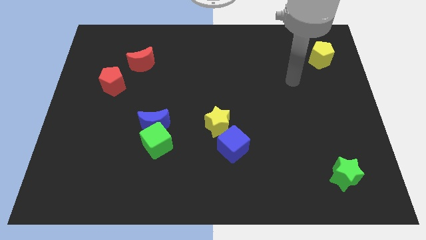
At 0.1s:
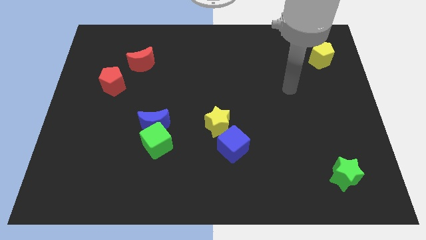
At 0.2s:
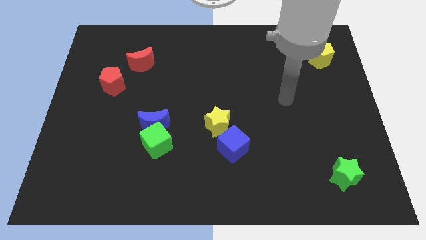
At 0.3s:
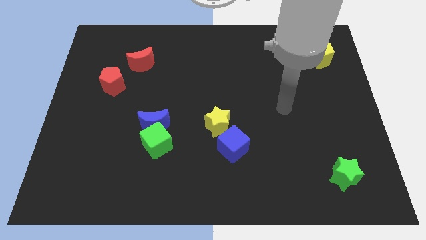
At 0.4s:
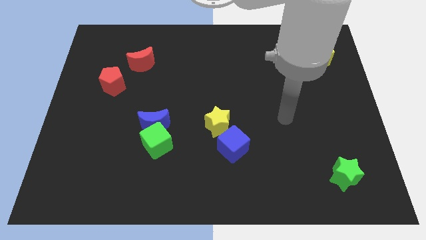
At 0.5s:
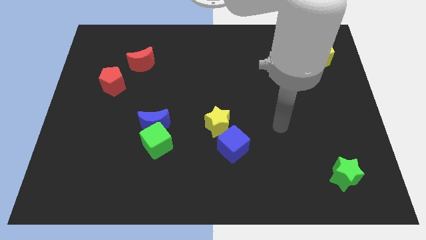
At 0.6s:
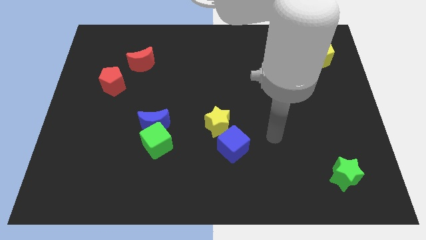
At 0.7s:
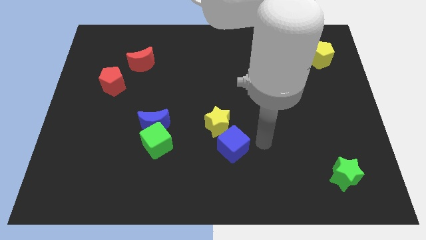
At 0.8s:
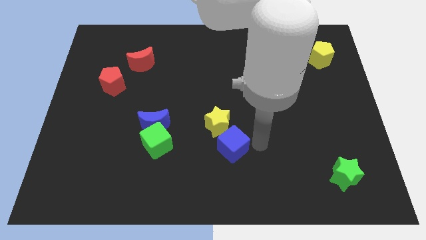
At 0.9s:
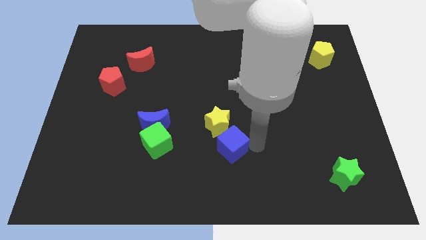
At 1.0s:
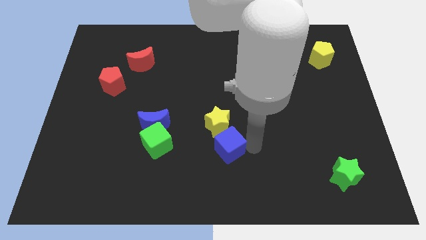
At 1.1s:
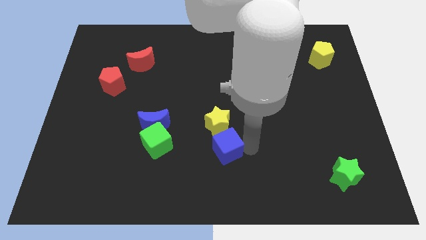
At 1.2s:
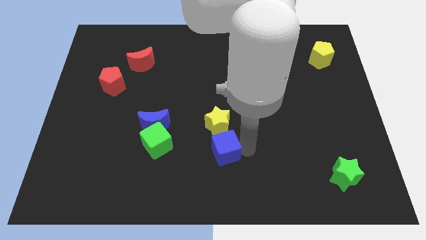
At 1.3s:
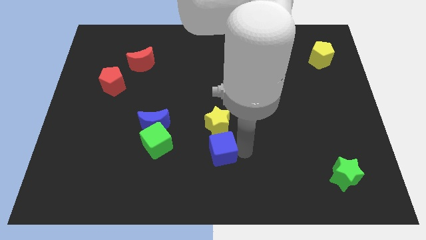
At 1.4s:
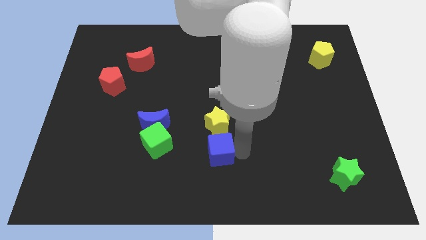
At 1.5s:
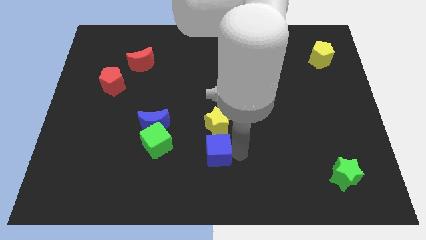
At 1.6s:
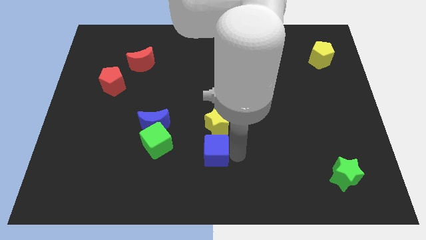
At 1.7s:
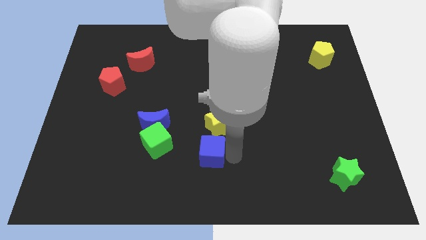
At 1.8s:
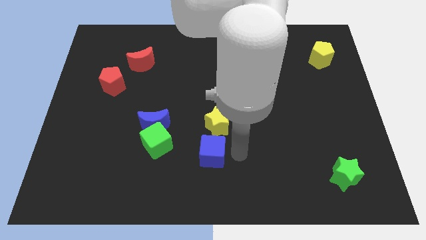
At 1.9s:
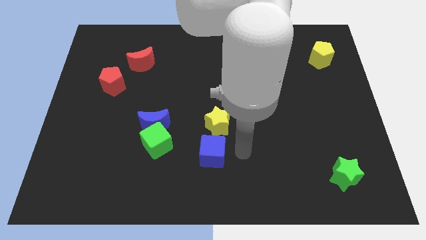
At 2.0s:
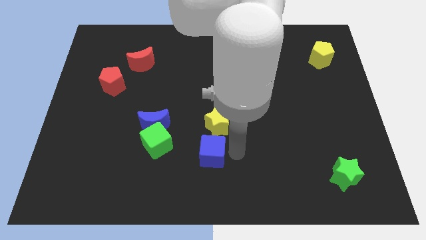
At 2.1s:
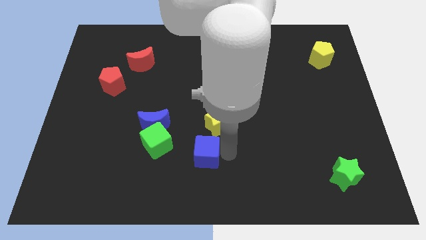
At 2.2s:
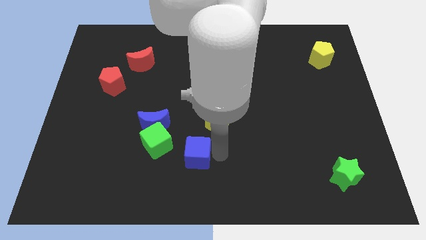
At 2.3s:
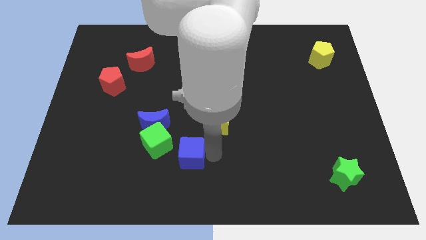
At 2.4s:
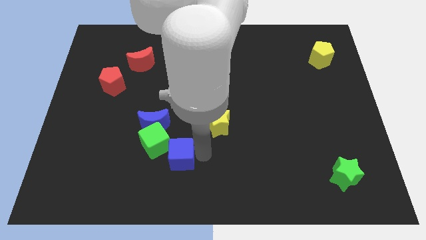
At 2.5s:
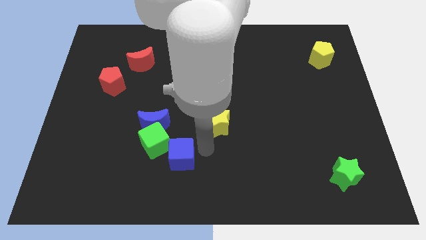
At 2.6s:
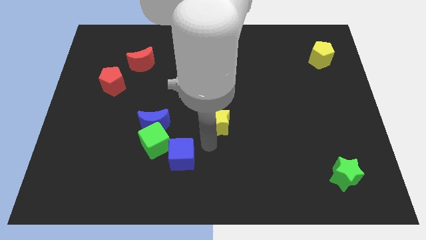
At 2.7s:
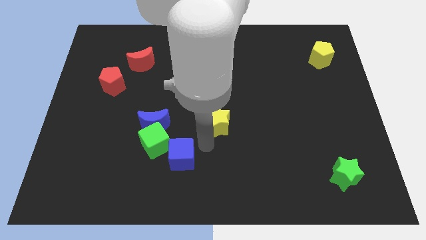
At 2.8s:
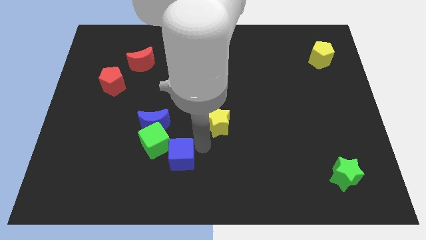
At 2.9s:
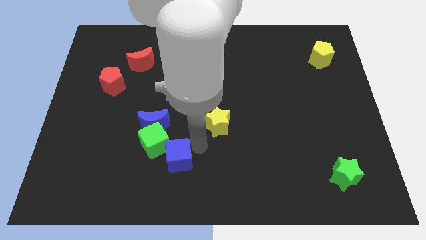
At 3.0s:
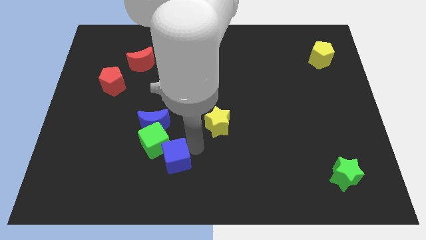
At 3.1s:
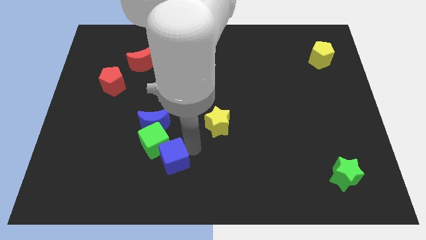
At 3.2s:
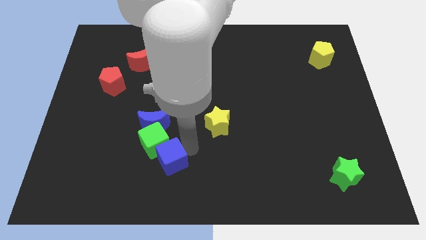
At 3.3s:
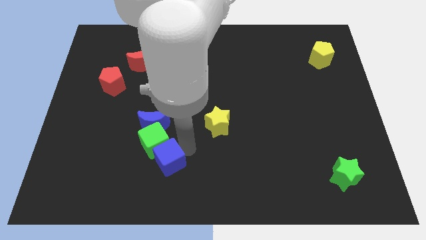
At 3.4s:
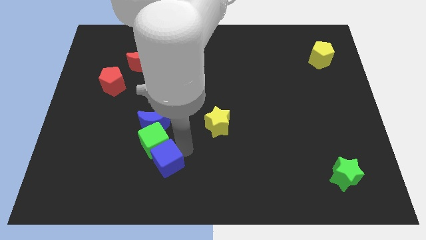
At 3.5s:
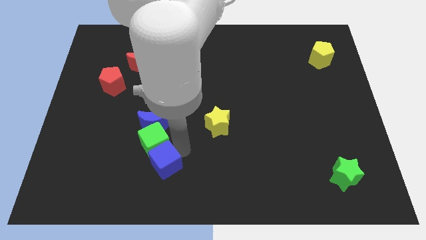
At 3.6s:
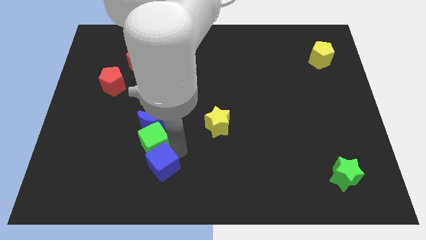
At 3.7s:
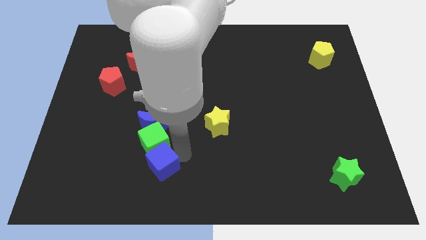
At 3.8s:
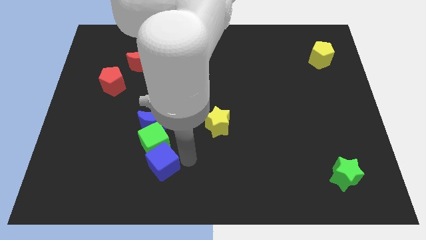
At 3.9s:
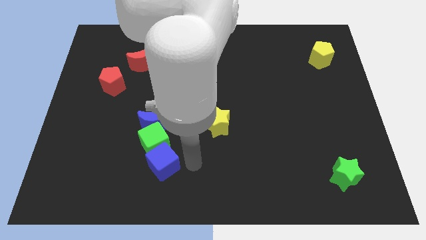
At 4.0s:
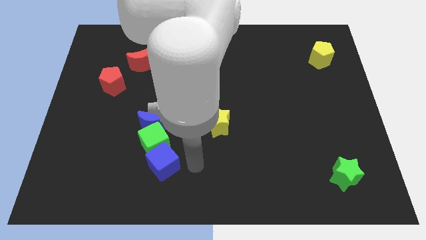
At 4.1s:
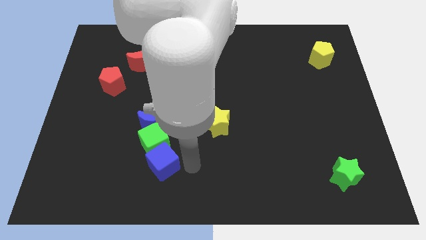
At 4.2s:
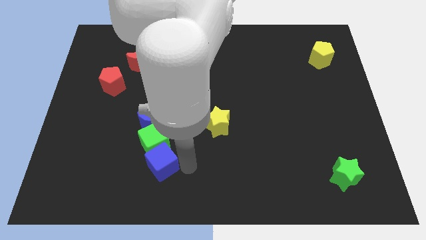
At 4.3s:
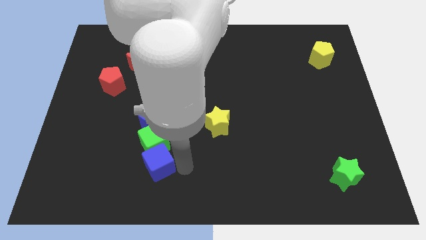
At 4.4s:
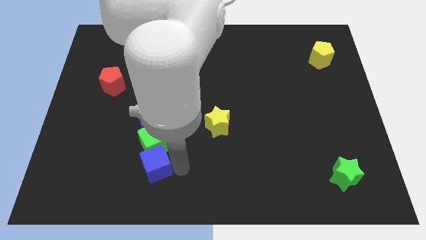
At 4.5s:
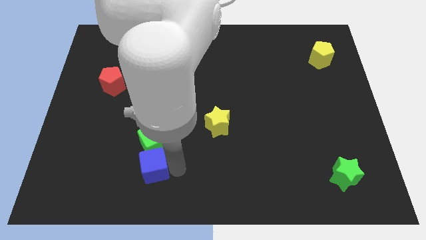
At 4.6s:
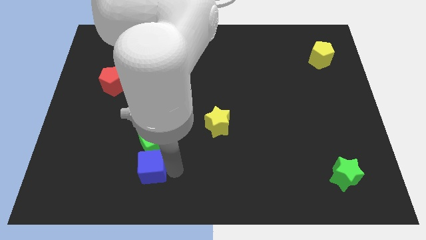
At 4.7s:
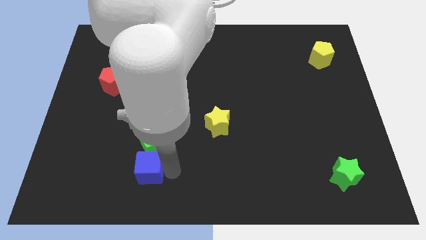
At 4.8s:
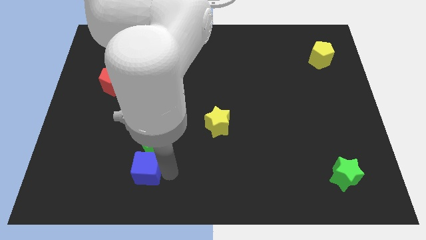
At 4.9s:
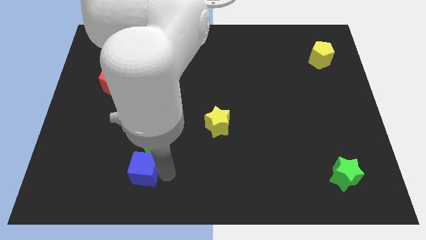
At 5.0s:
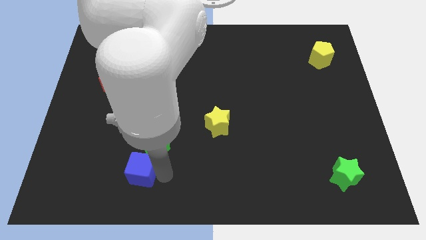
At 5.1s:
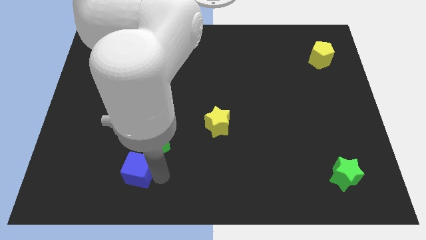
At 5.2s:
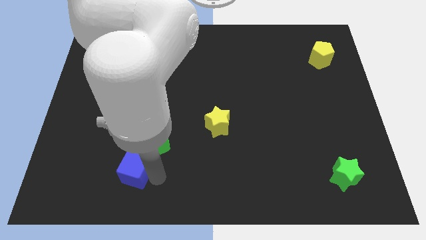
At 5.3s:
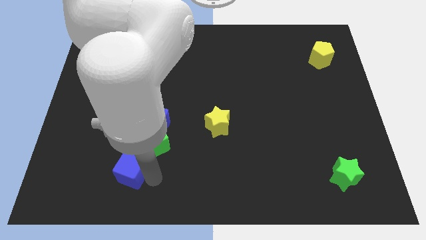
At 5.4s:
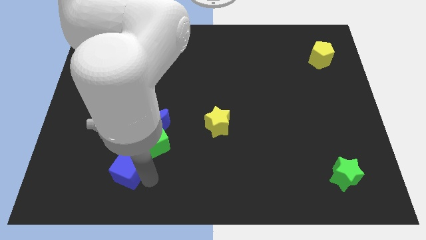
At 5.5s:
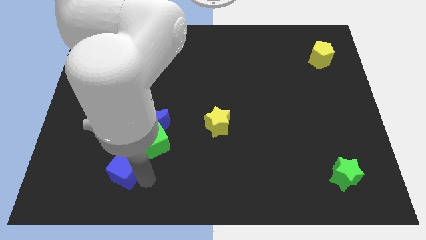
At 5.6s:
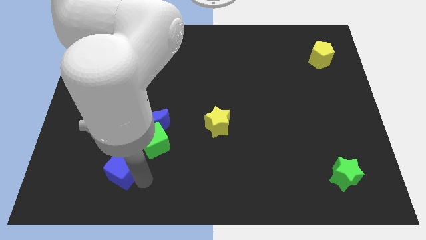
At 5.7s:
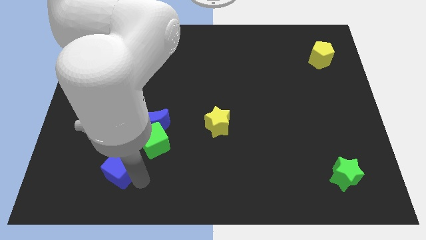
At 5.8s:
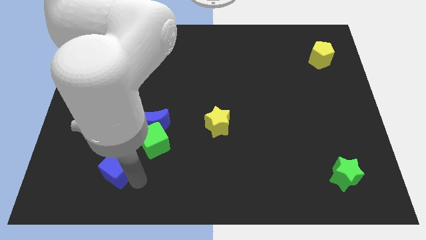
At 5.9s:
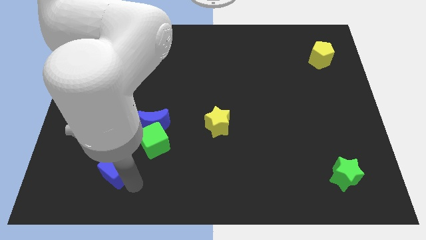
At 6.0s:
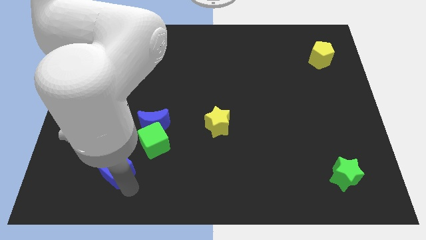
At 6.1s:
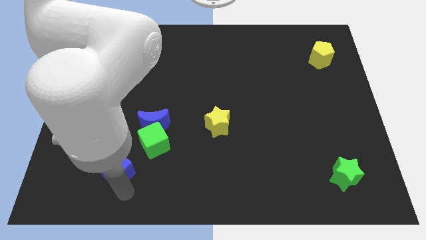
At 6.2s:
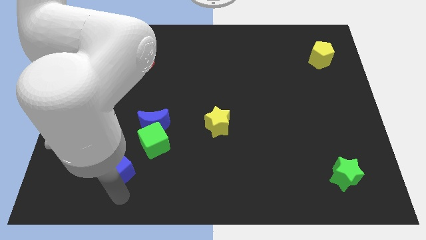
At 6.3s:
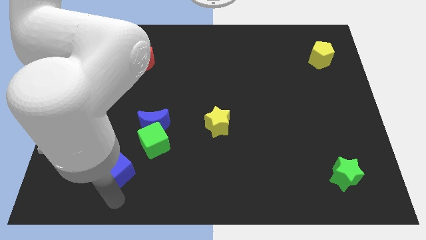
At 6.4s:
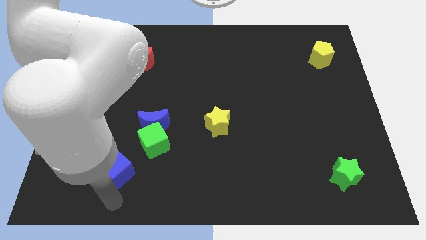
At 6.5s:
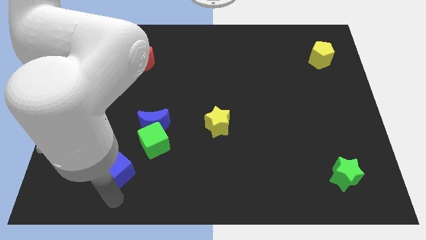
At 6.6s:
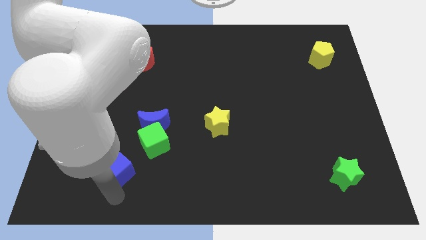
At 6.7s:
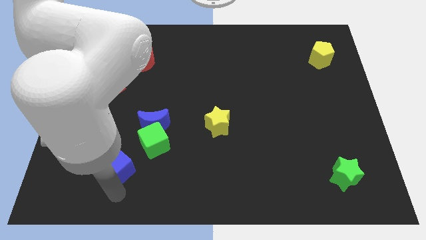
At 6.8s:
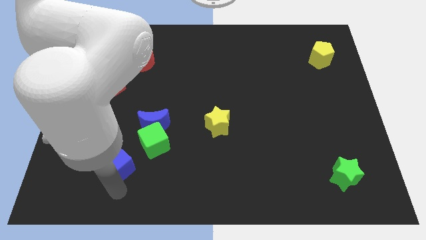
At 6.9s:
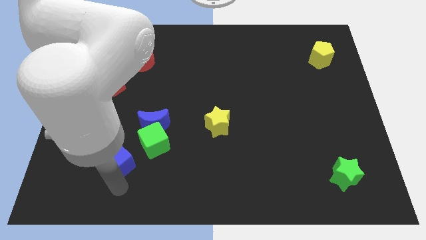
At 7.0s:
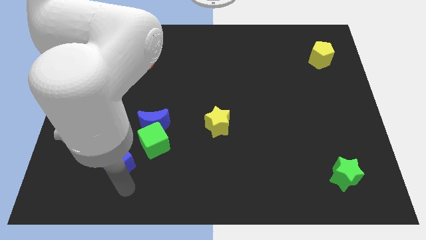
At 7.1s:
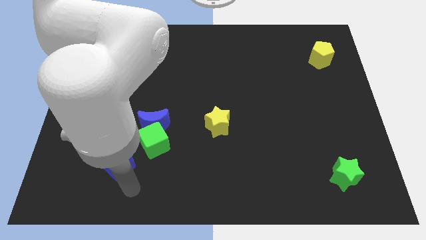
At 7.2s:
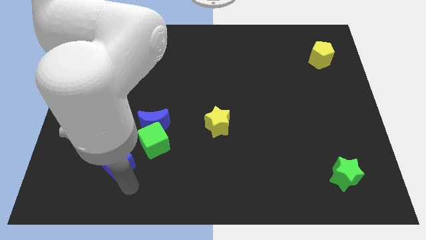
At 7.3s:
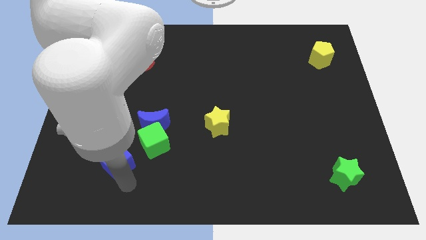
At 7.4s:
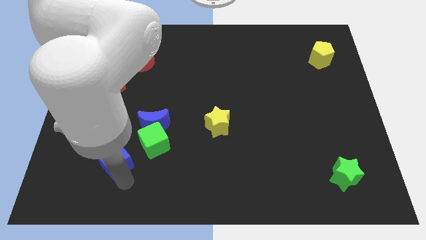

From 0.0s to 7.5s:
move the blue cube just left of the green cube

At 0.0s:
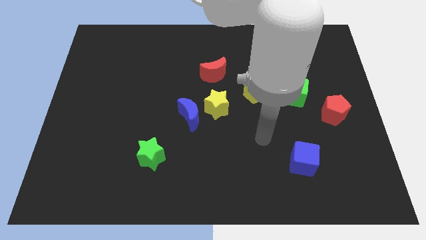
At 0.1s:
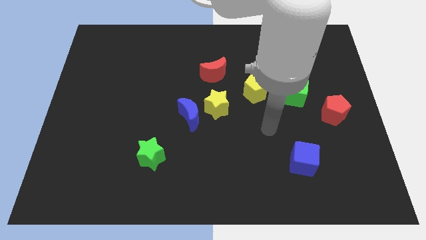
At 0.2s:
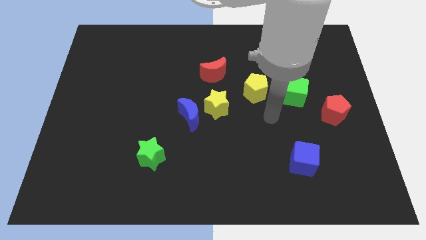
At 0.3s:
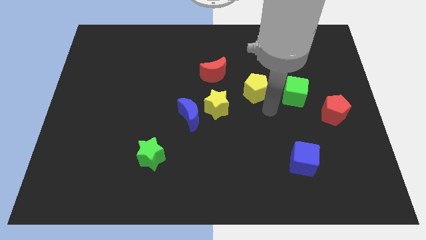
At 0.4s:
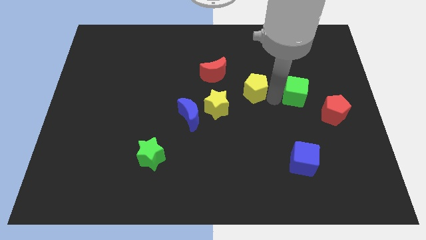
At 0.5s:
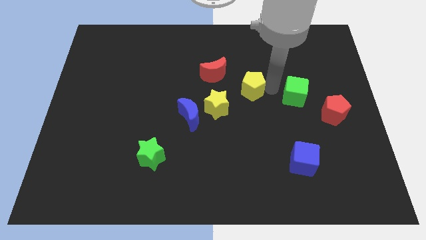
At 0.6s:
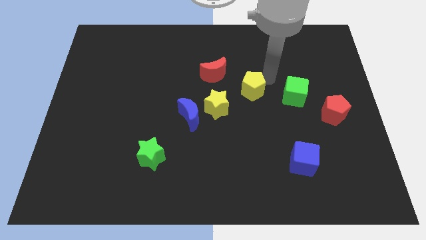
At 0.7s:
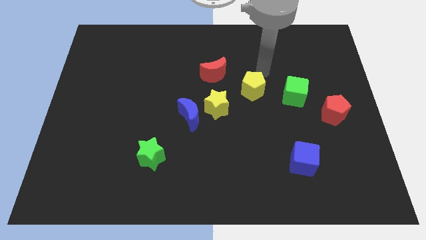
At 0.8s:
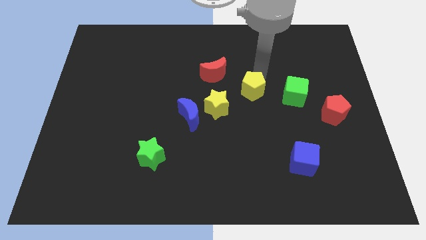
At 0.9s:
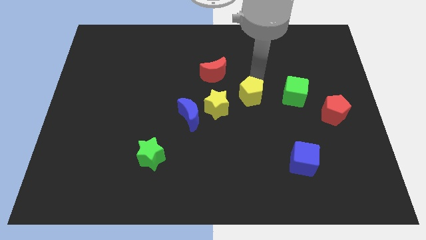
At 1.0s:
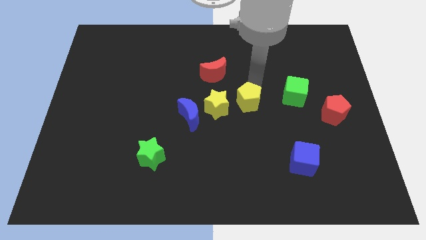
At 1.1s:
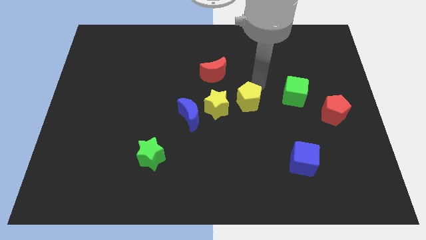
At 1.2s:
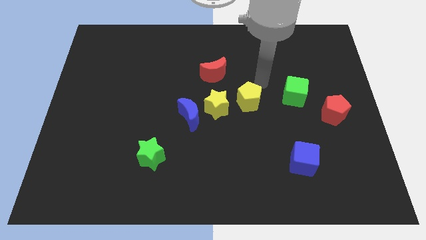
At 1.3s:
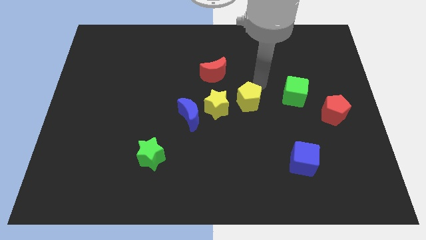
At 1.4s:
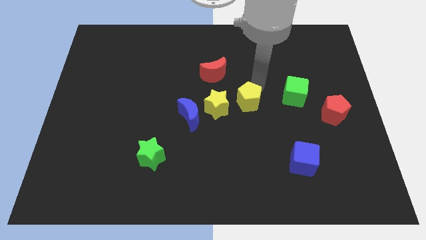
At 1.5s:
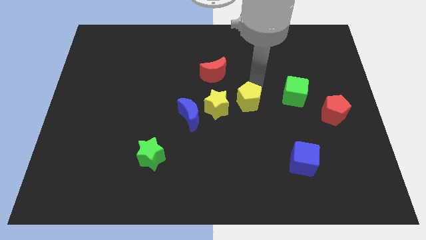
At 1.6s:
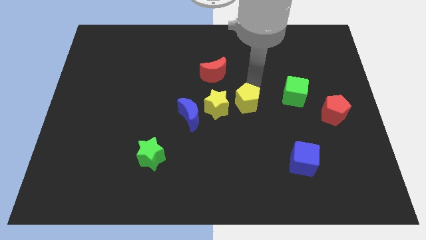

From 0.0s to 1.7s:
push the yellow pentagon just right of the blue moon
